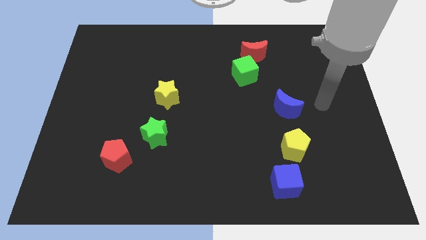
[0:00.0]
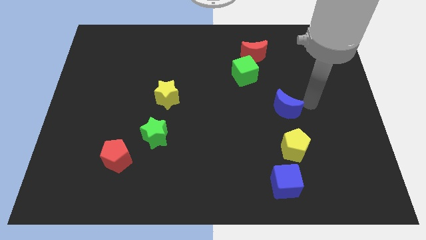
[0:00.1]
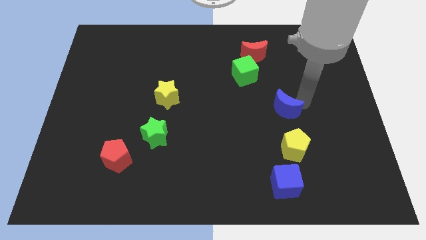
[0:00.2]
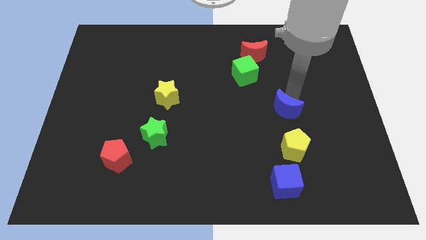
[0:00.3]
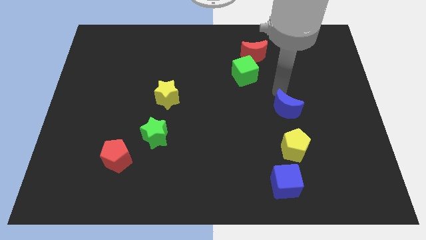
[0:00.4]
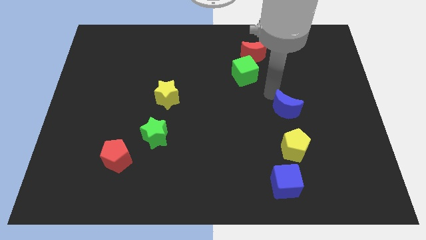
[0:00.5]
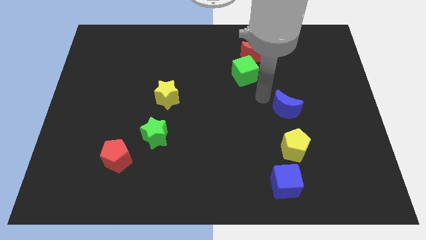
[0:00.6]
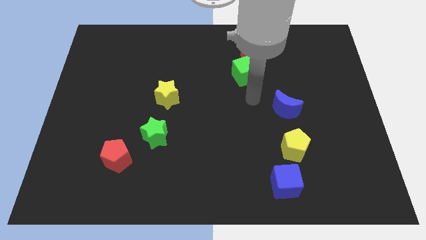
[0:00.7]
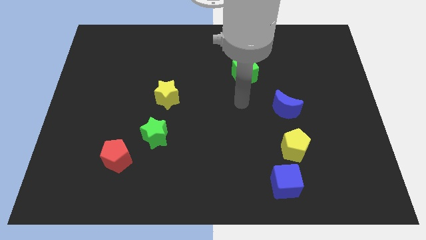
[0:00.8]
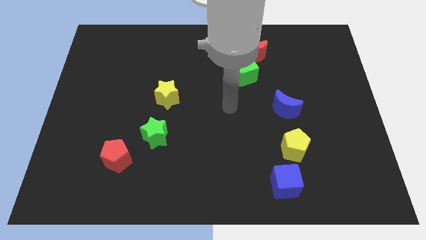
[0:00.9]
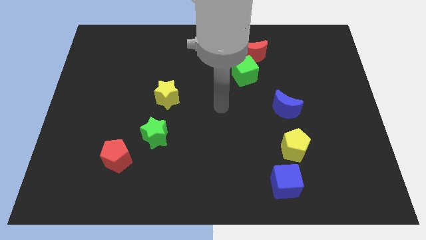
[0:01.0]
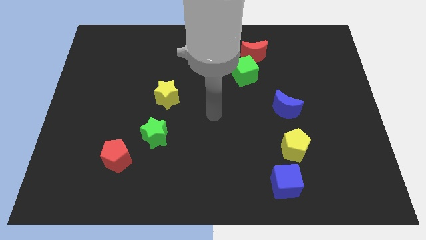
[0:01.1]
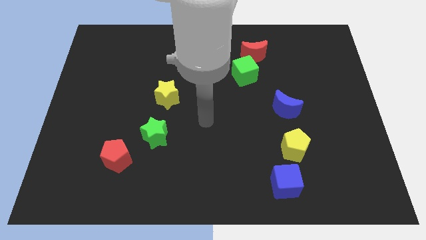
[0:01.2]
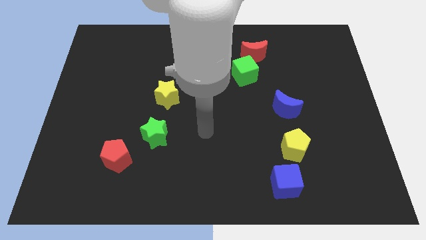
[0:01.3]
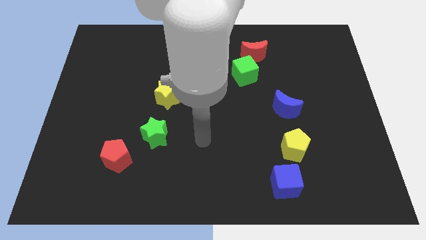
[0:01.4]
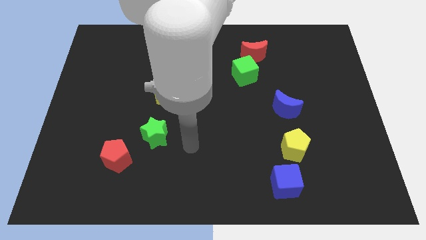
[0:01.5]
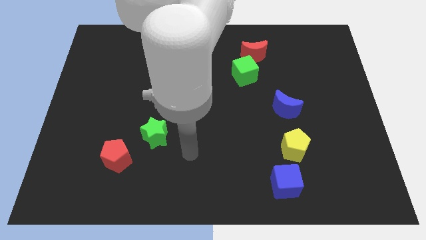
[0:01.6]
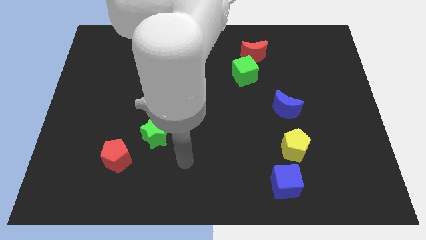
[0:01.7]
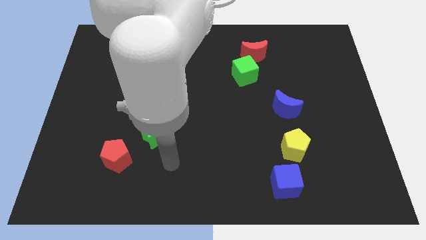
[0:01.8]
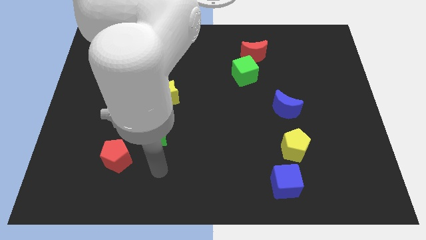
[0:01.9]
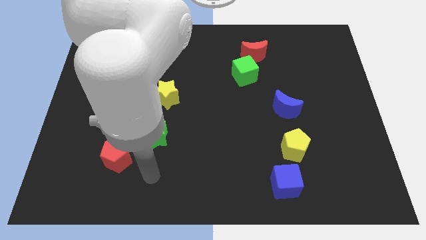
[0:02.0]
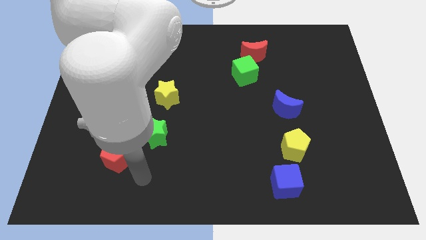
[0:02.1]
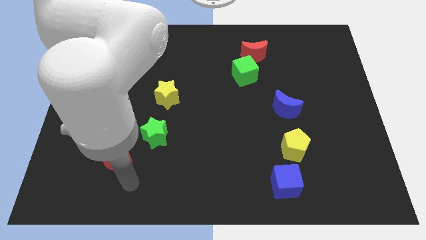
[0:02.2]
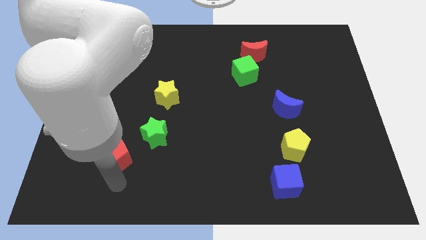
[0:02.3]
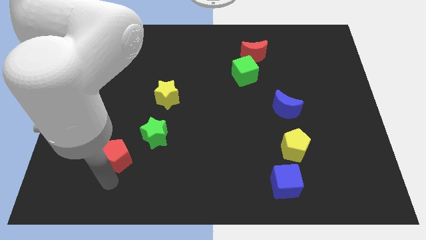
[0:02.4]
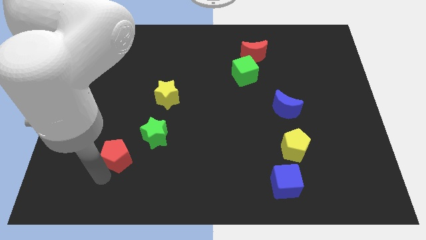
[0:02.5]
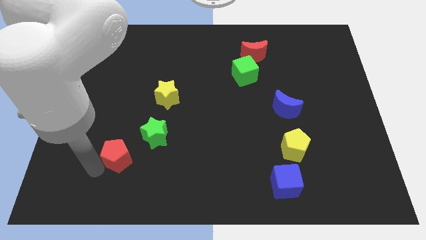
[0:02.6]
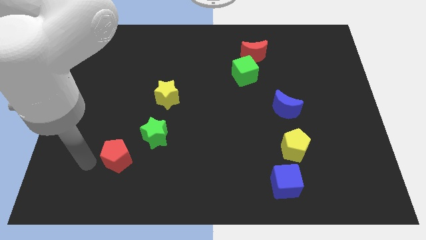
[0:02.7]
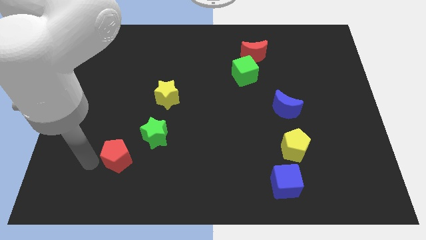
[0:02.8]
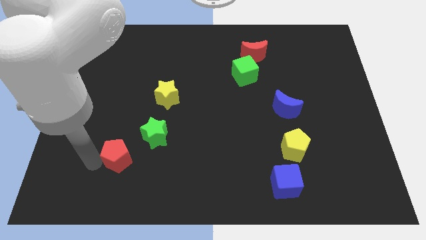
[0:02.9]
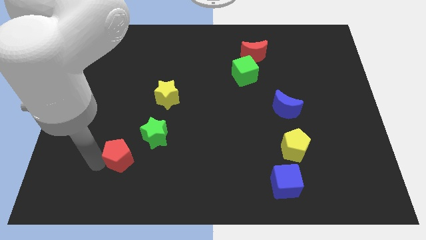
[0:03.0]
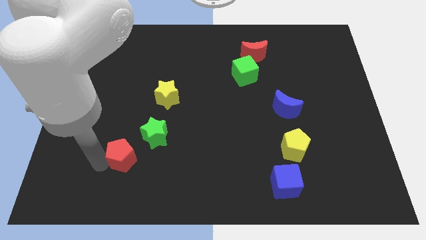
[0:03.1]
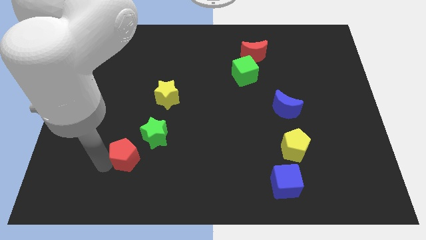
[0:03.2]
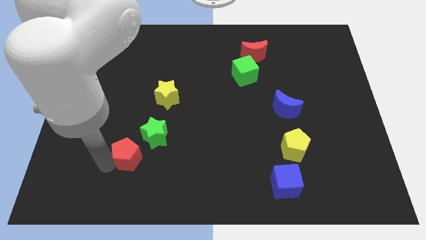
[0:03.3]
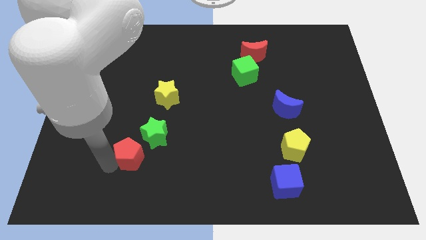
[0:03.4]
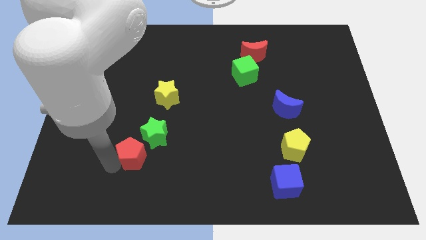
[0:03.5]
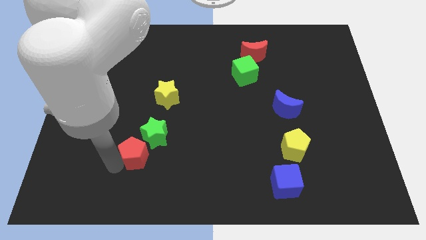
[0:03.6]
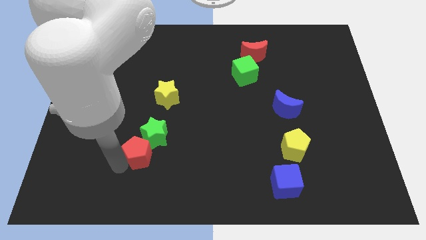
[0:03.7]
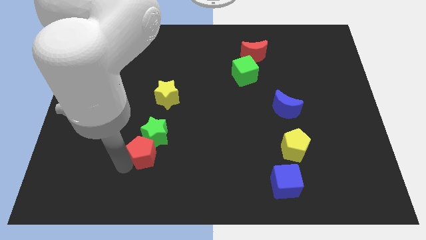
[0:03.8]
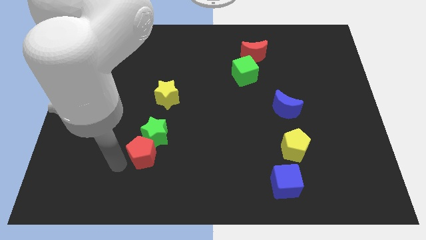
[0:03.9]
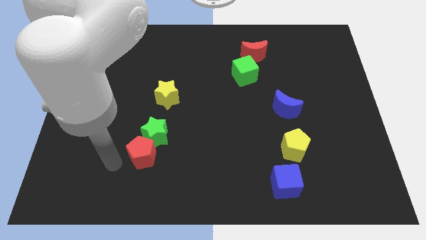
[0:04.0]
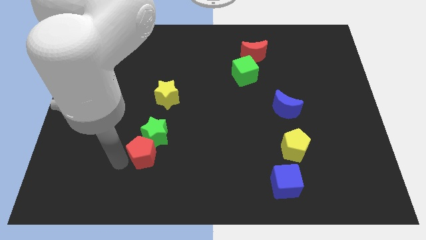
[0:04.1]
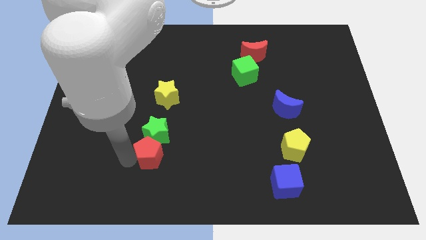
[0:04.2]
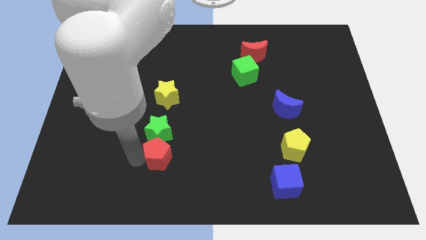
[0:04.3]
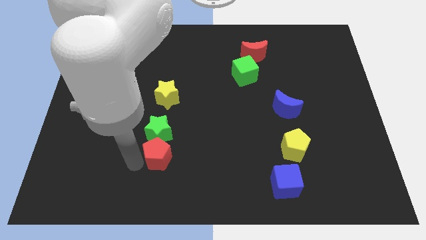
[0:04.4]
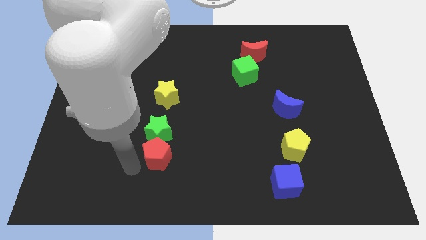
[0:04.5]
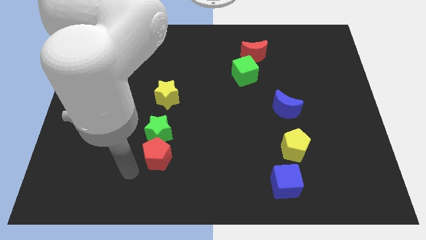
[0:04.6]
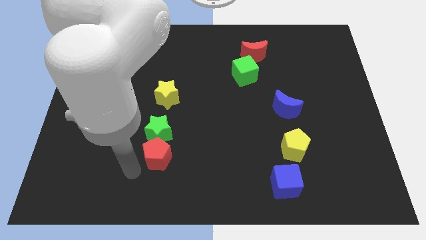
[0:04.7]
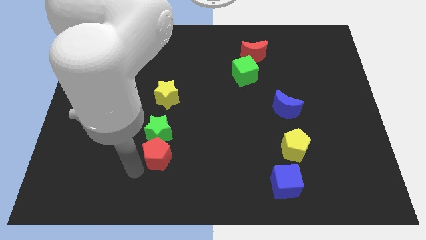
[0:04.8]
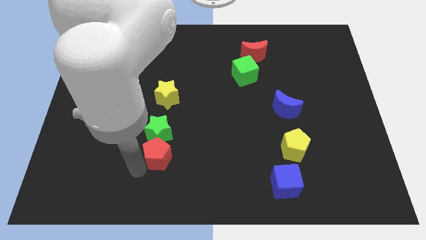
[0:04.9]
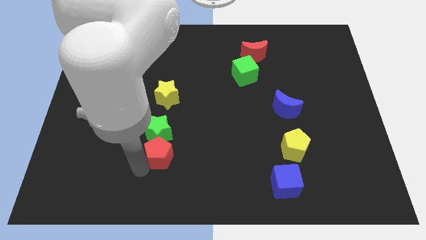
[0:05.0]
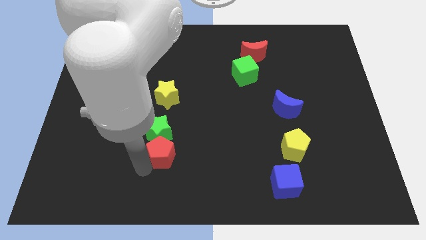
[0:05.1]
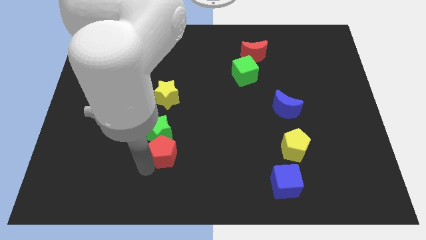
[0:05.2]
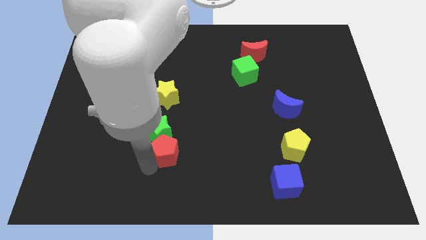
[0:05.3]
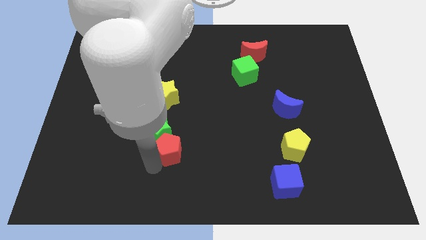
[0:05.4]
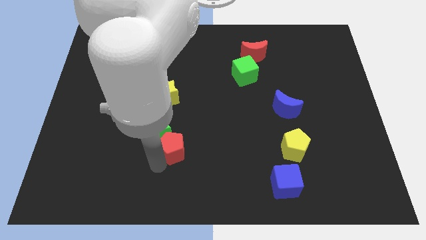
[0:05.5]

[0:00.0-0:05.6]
put the red pentagon to the right side of the green star

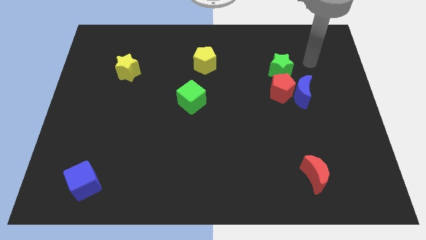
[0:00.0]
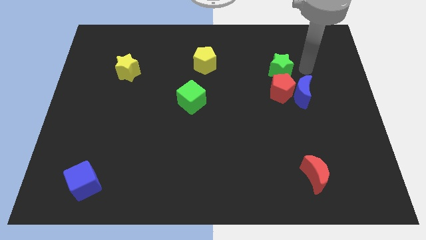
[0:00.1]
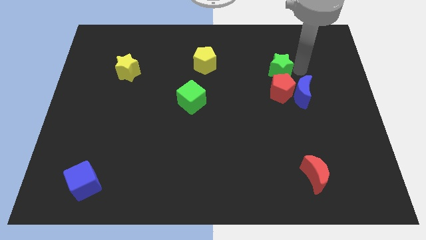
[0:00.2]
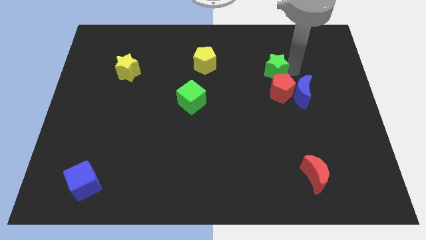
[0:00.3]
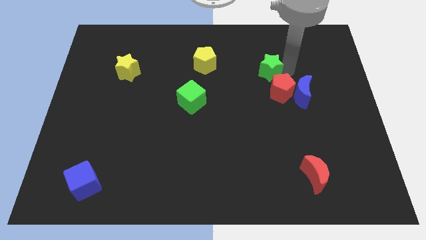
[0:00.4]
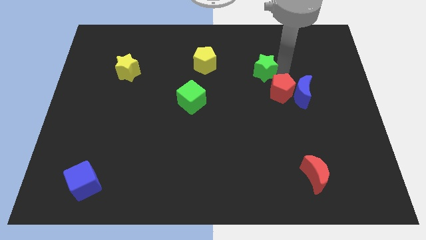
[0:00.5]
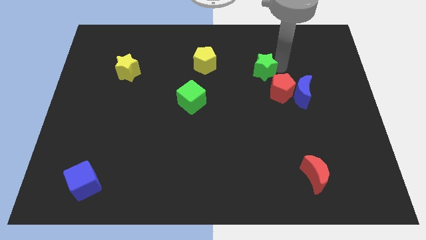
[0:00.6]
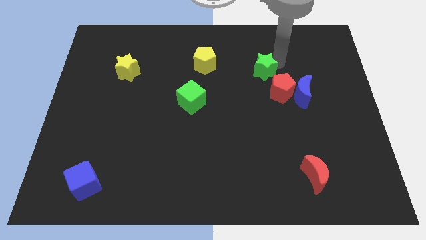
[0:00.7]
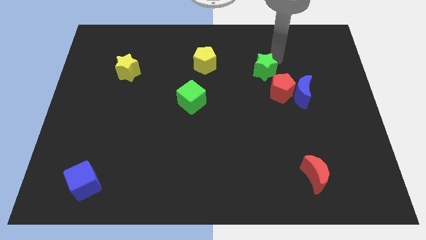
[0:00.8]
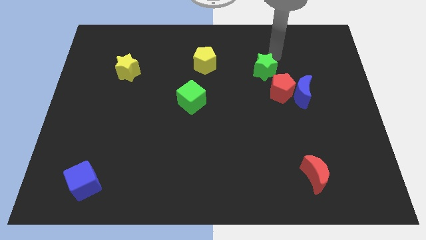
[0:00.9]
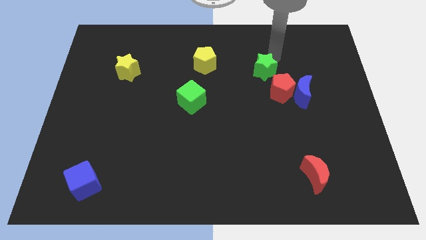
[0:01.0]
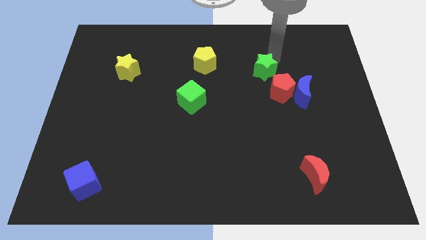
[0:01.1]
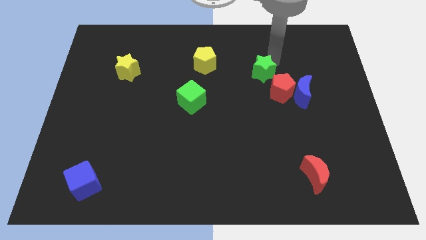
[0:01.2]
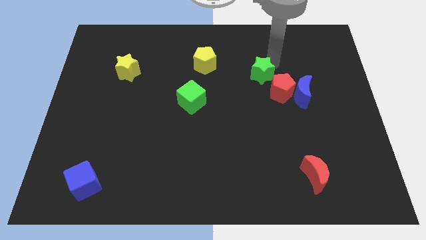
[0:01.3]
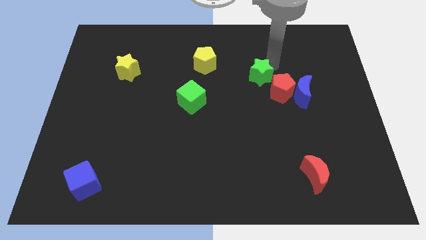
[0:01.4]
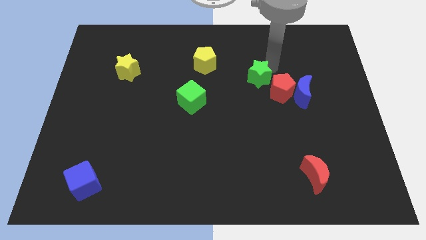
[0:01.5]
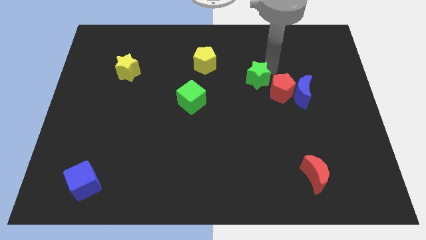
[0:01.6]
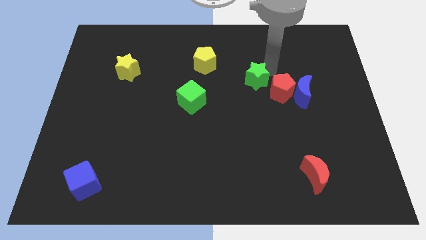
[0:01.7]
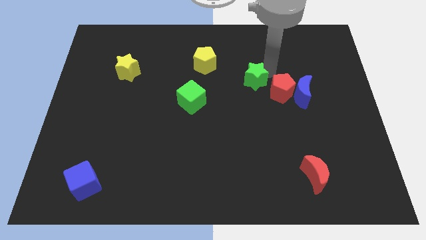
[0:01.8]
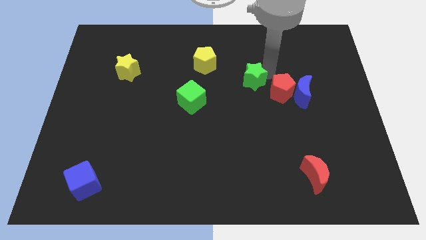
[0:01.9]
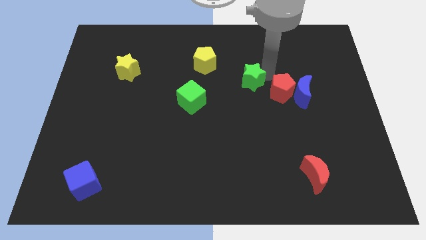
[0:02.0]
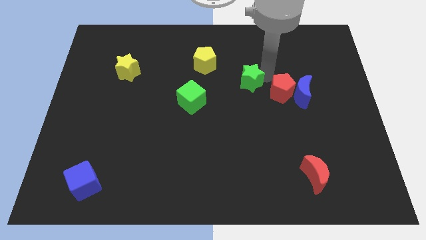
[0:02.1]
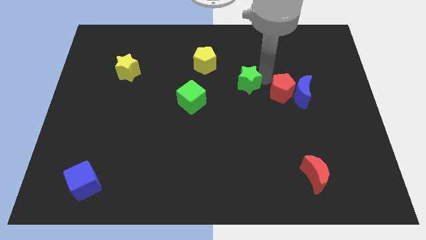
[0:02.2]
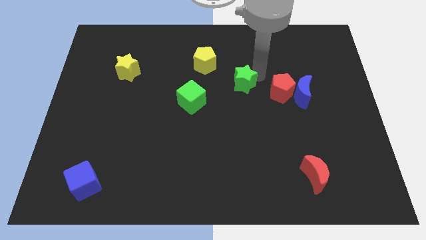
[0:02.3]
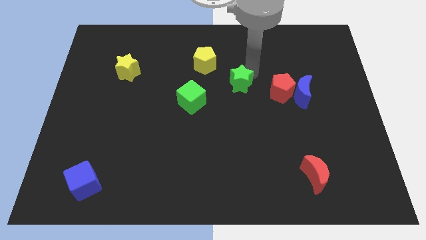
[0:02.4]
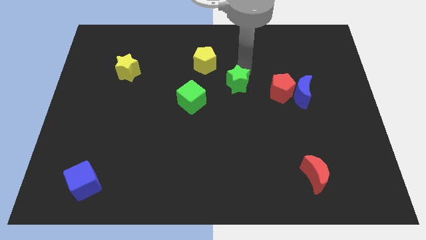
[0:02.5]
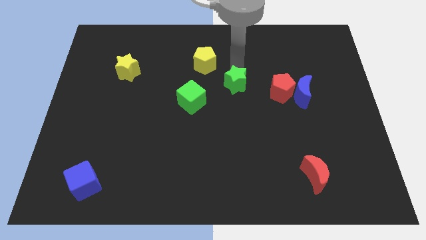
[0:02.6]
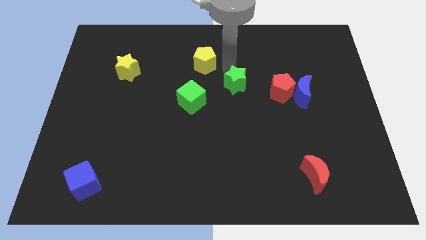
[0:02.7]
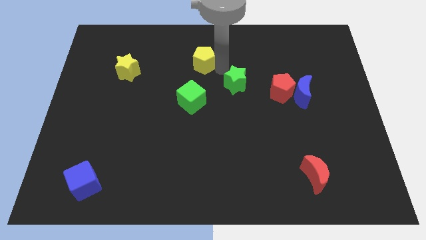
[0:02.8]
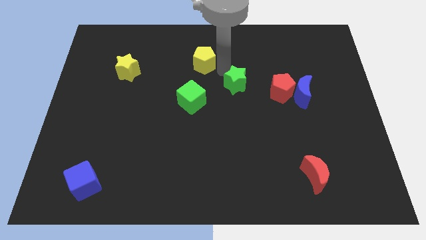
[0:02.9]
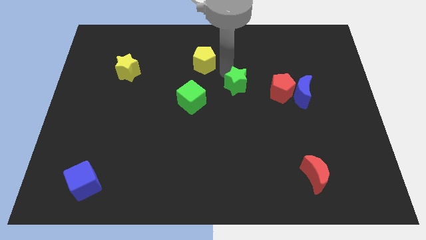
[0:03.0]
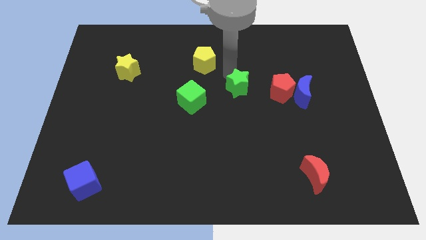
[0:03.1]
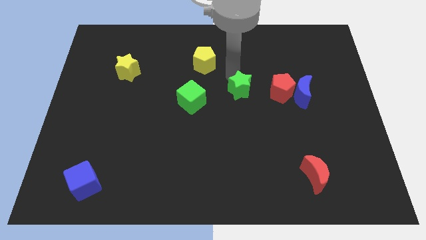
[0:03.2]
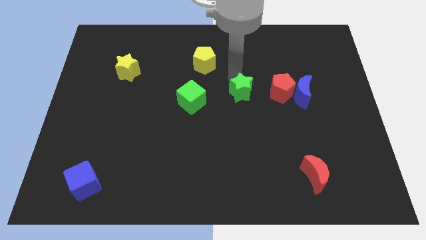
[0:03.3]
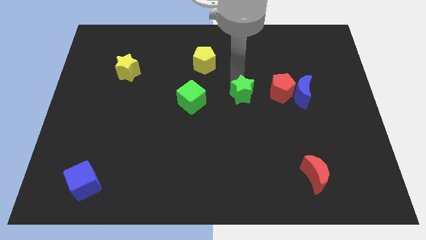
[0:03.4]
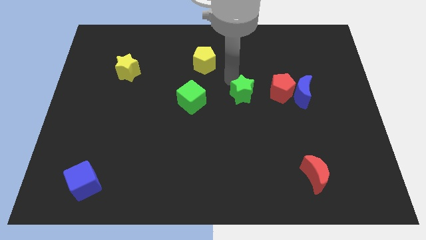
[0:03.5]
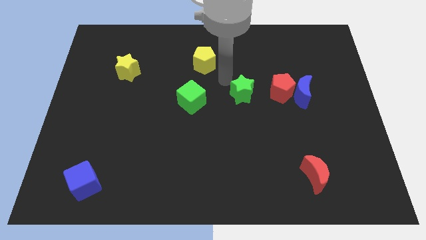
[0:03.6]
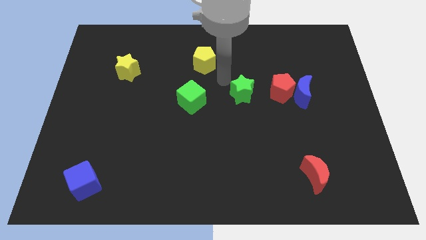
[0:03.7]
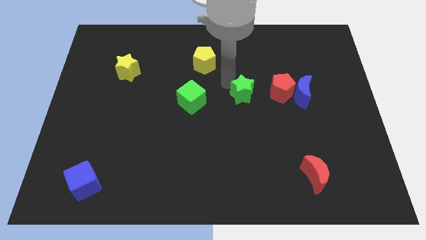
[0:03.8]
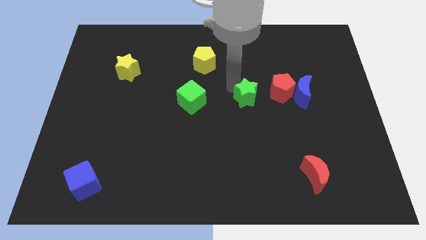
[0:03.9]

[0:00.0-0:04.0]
put the green star to the bottom left side of the red pentagon
